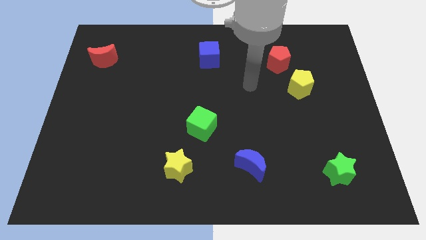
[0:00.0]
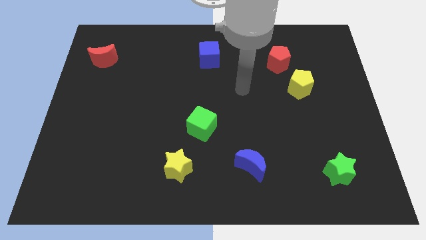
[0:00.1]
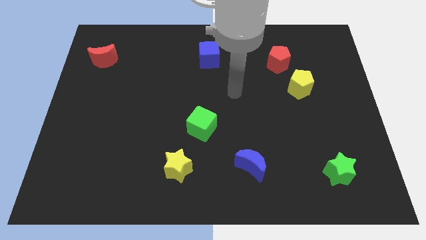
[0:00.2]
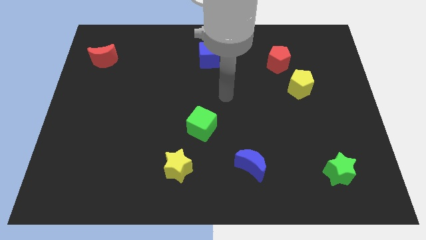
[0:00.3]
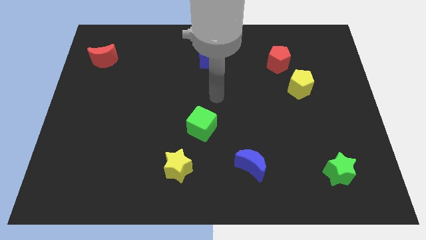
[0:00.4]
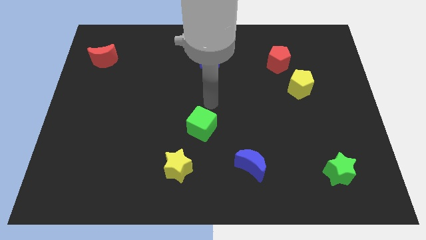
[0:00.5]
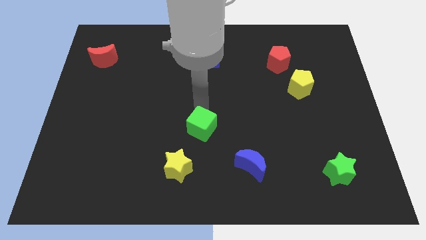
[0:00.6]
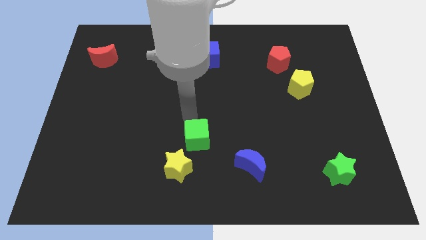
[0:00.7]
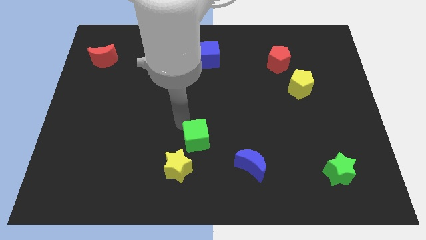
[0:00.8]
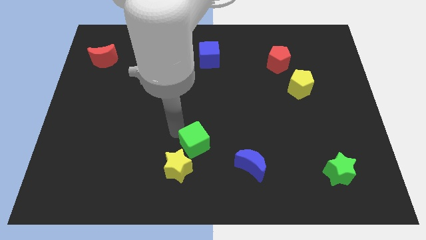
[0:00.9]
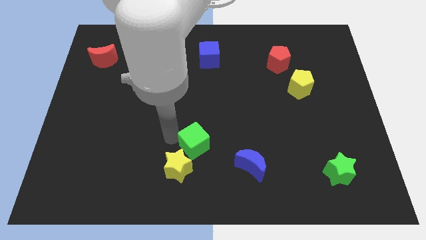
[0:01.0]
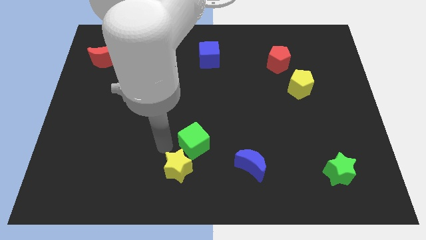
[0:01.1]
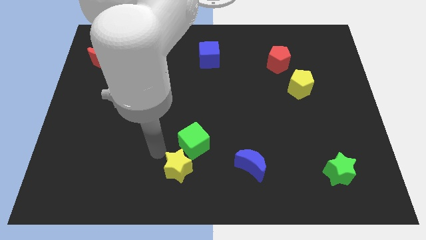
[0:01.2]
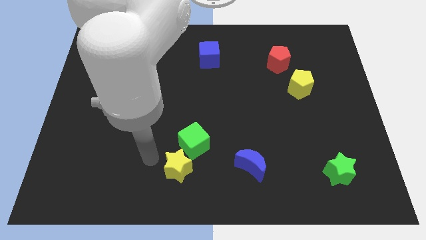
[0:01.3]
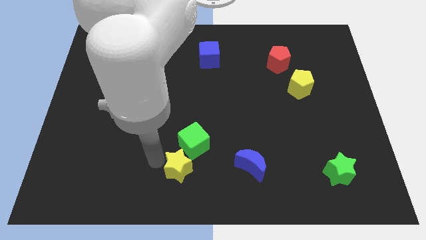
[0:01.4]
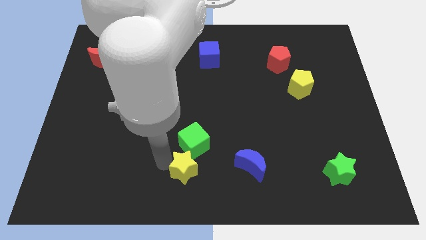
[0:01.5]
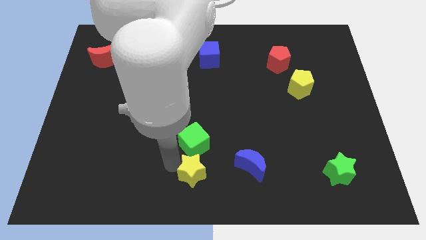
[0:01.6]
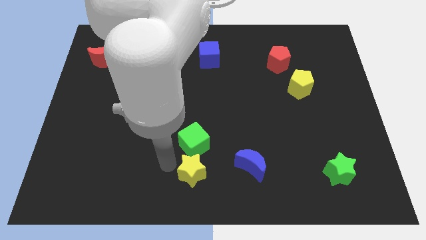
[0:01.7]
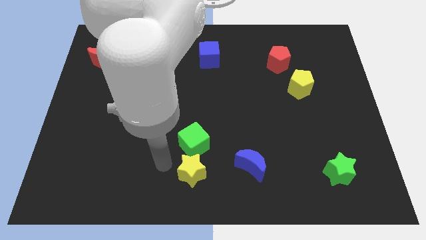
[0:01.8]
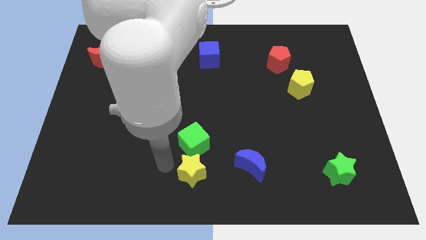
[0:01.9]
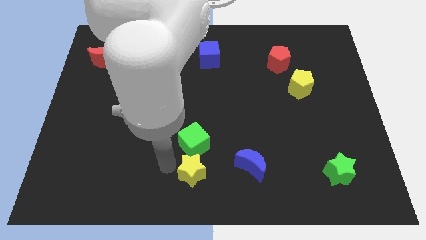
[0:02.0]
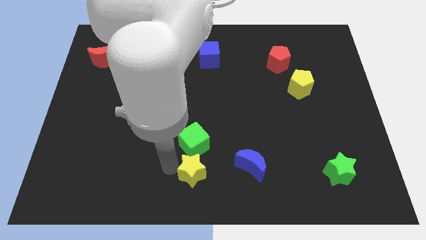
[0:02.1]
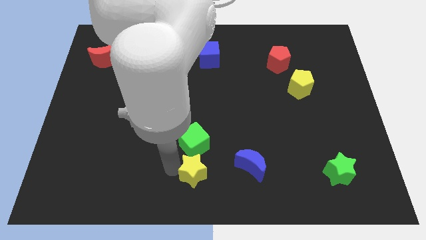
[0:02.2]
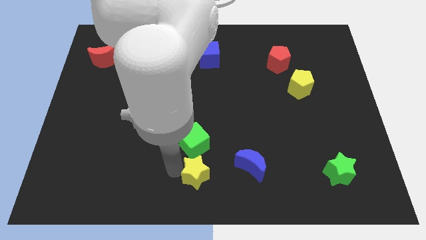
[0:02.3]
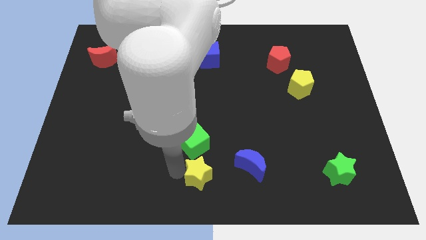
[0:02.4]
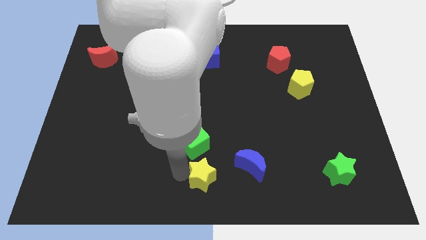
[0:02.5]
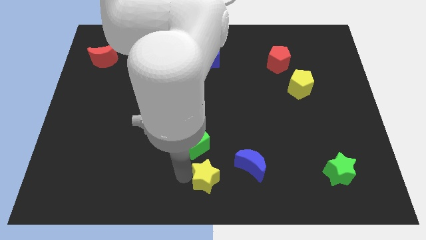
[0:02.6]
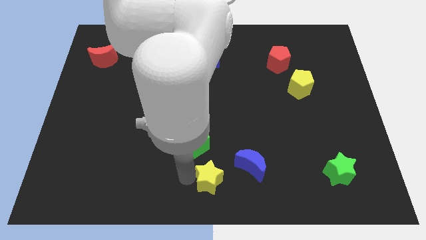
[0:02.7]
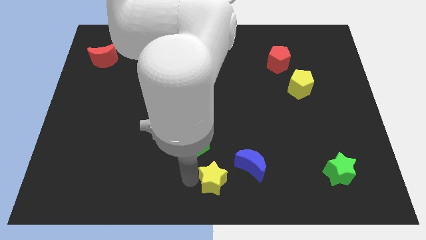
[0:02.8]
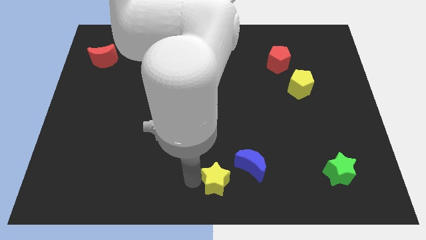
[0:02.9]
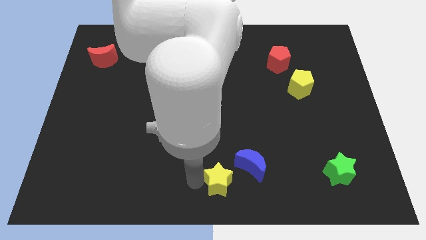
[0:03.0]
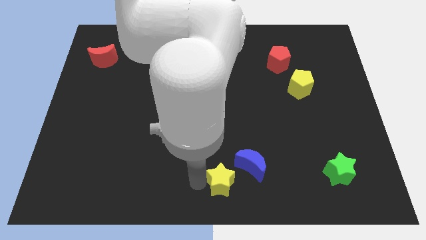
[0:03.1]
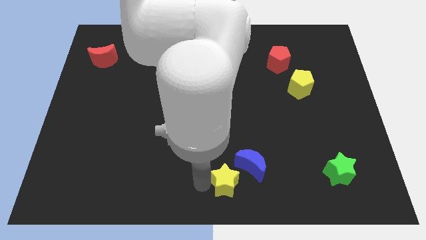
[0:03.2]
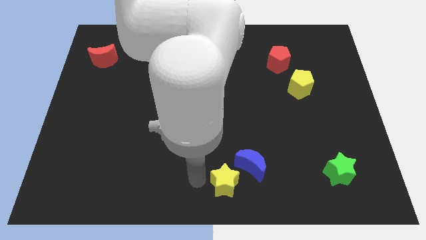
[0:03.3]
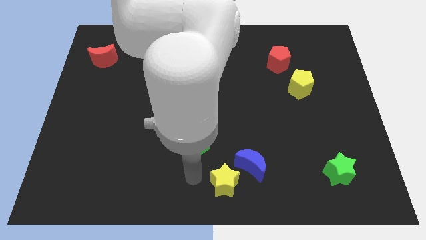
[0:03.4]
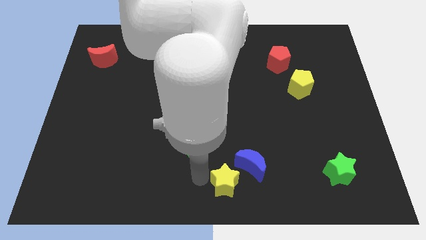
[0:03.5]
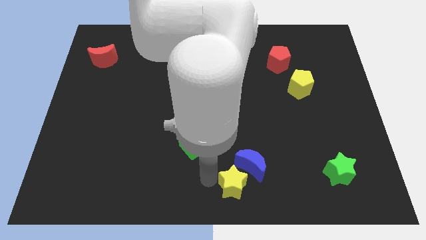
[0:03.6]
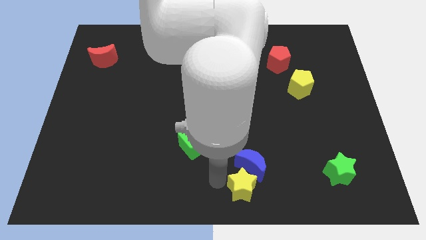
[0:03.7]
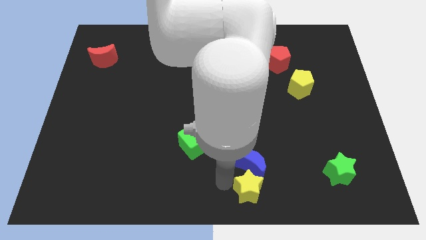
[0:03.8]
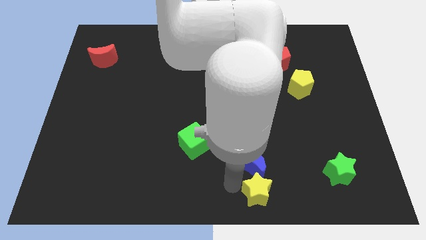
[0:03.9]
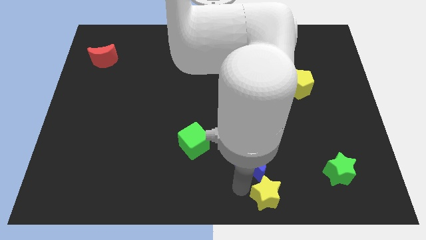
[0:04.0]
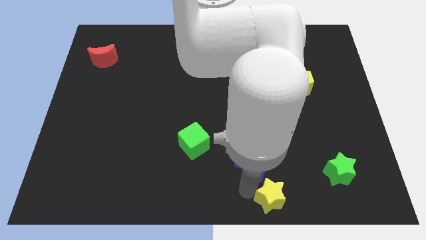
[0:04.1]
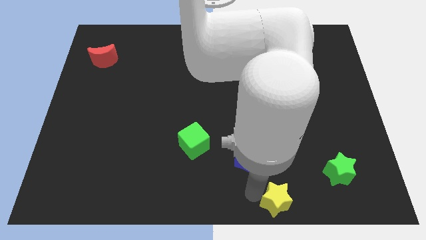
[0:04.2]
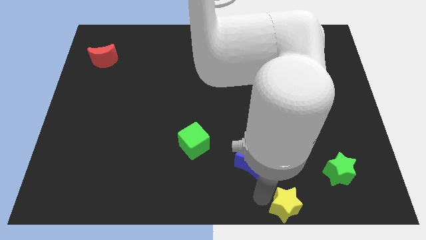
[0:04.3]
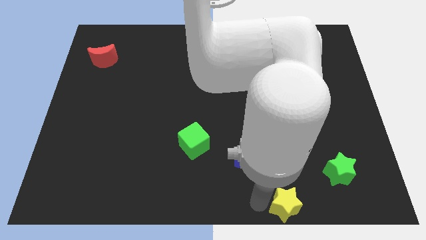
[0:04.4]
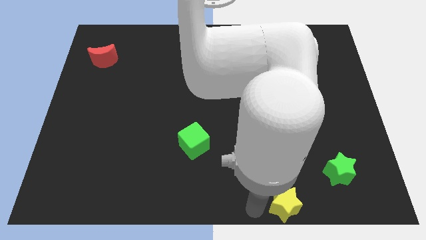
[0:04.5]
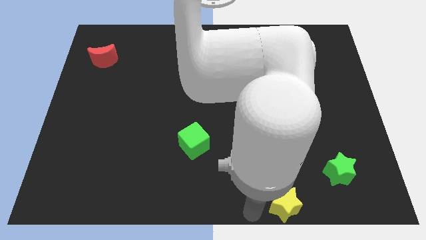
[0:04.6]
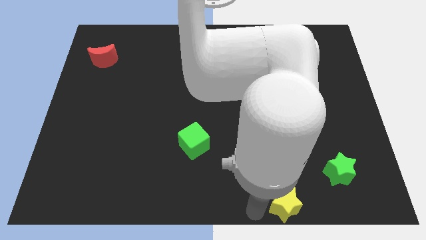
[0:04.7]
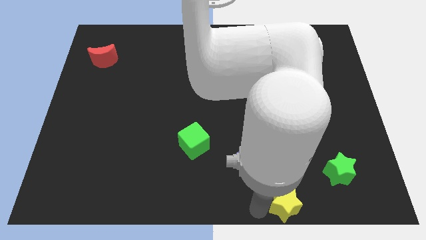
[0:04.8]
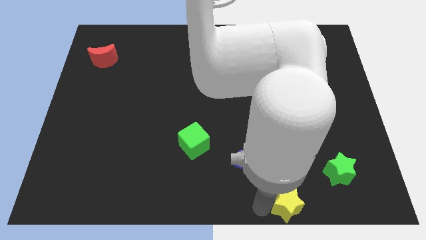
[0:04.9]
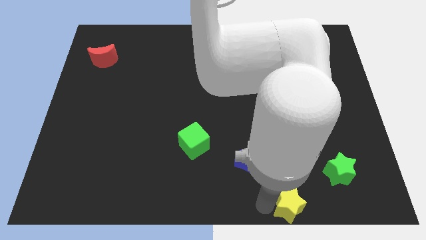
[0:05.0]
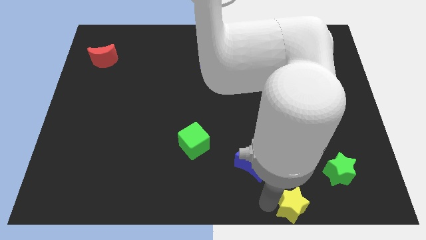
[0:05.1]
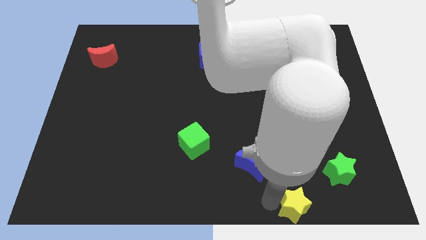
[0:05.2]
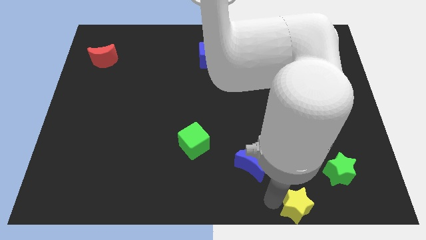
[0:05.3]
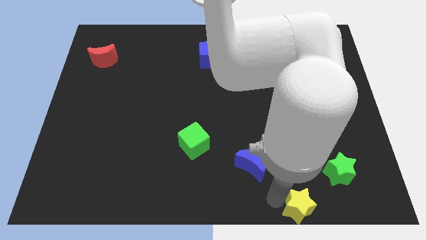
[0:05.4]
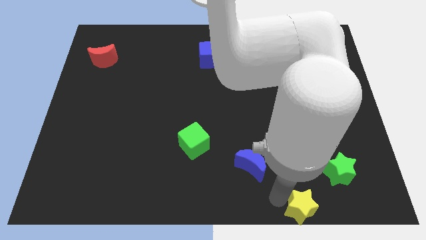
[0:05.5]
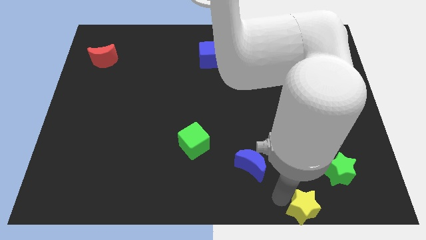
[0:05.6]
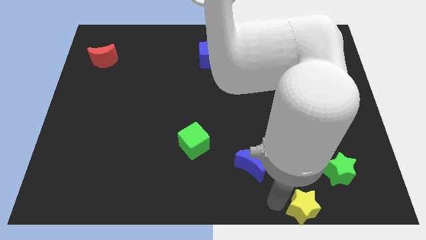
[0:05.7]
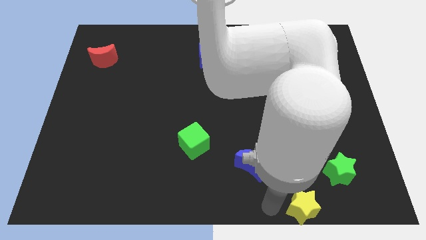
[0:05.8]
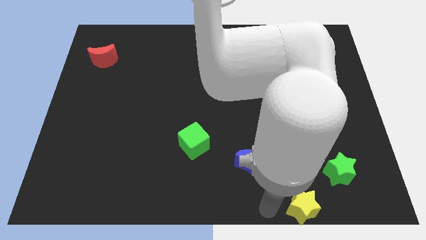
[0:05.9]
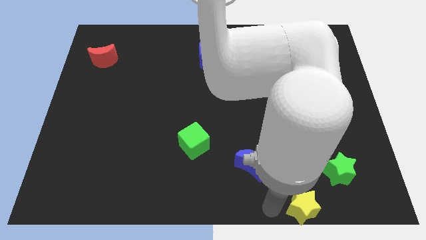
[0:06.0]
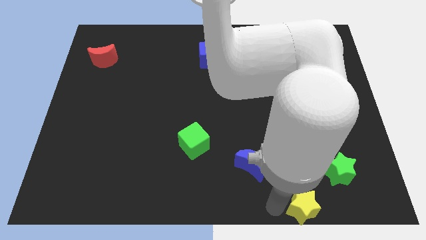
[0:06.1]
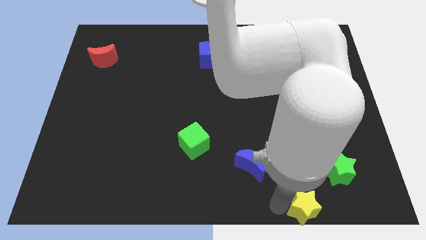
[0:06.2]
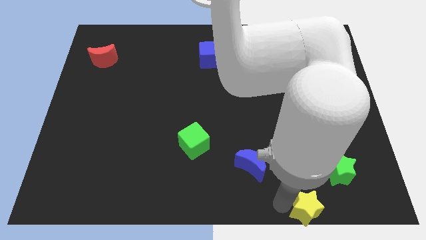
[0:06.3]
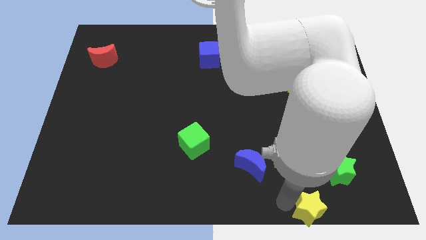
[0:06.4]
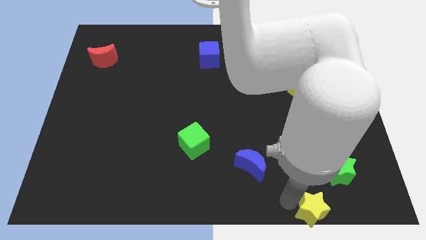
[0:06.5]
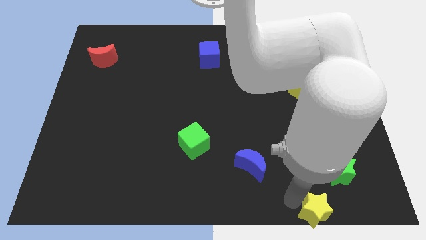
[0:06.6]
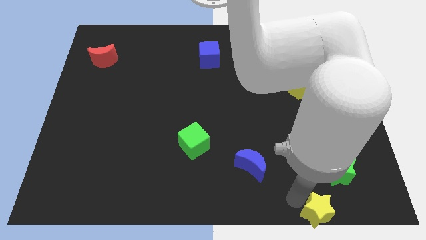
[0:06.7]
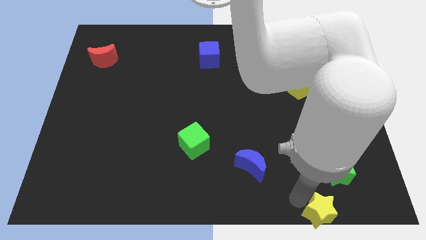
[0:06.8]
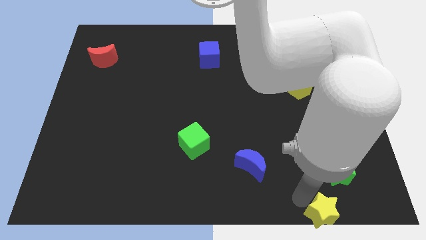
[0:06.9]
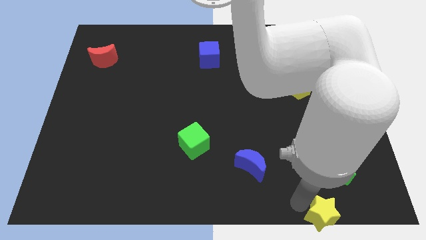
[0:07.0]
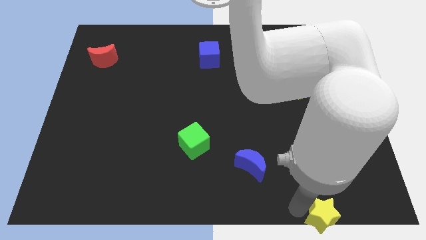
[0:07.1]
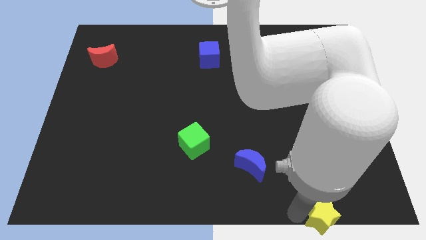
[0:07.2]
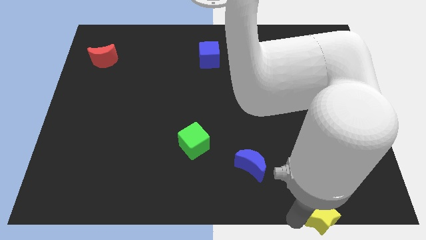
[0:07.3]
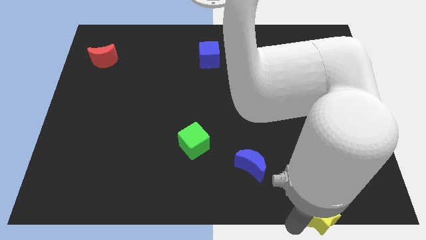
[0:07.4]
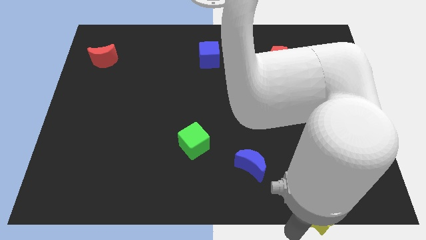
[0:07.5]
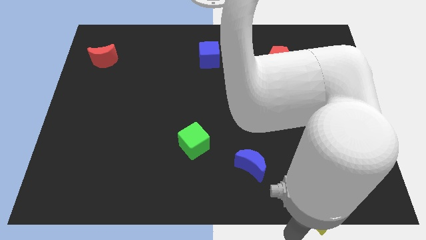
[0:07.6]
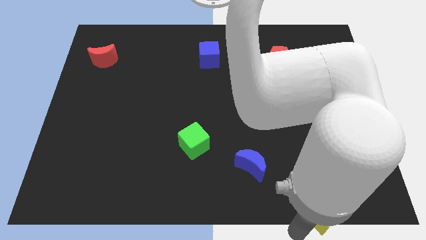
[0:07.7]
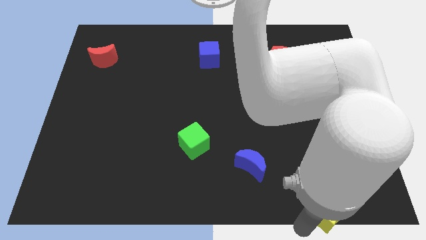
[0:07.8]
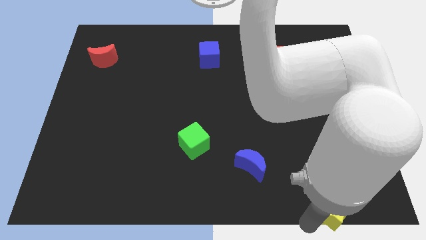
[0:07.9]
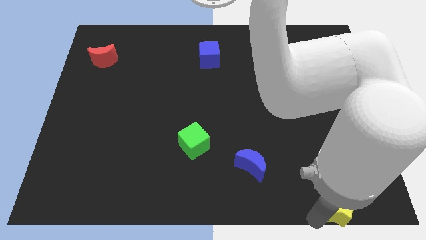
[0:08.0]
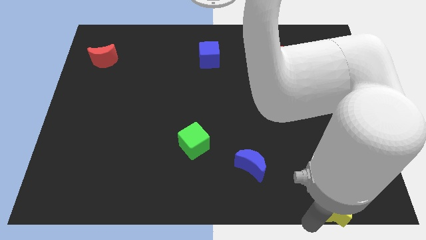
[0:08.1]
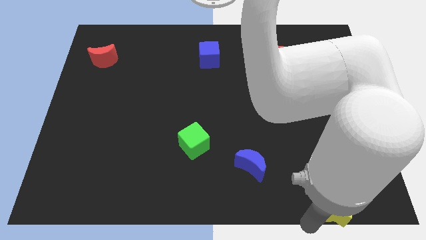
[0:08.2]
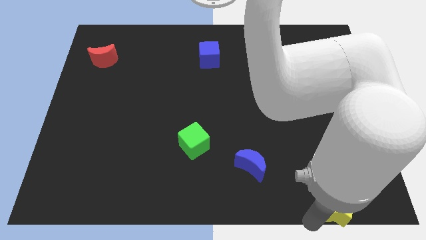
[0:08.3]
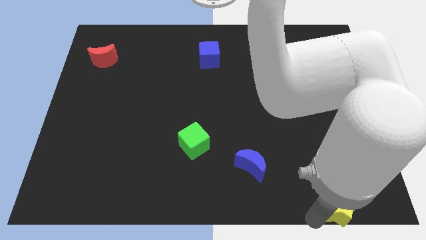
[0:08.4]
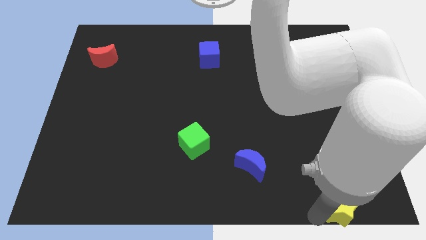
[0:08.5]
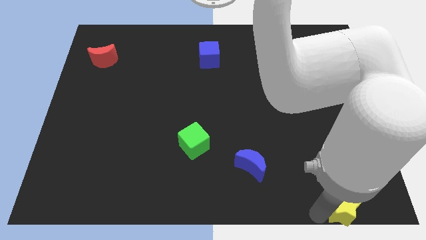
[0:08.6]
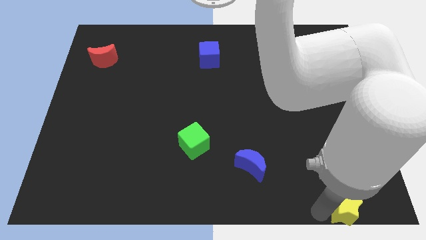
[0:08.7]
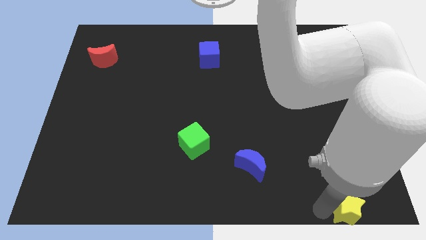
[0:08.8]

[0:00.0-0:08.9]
push the yellow star to the bottom right
